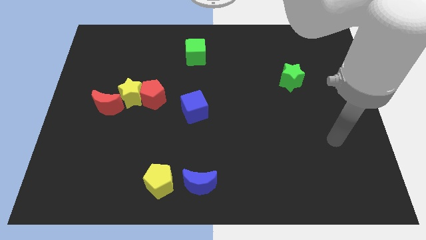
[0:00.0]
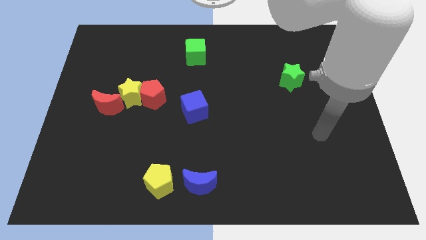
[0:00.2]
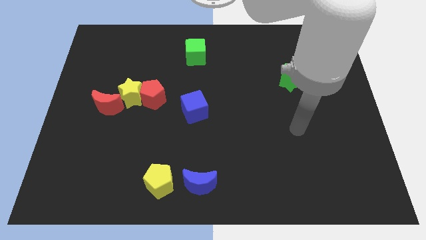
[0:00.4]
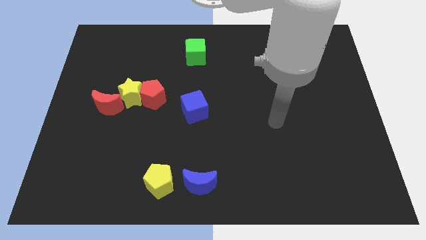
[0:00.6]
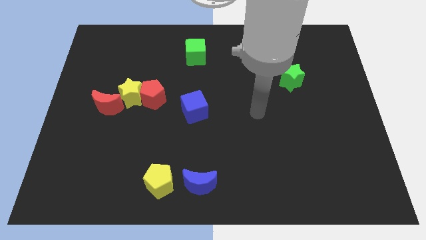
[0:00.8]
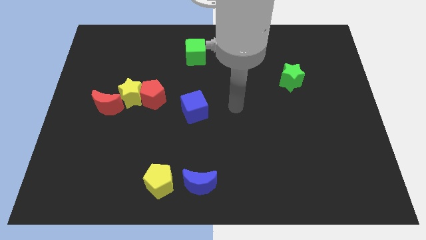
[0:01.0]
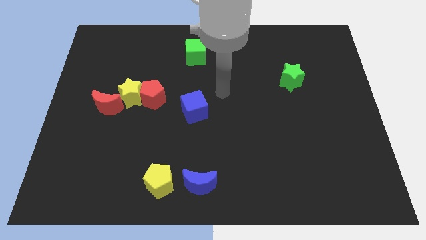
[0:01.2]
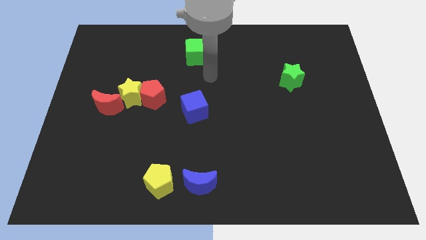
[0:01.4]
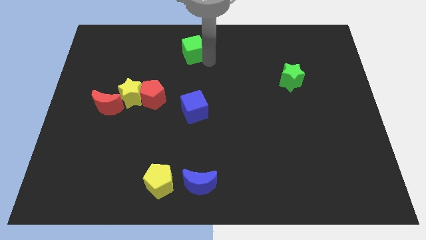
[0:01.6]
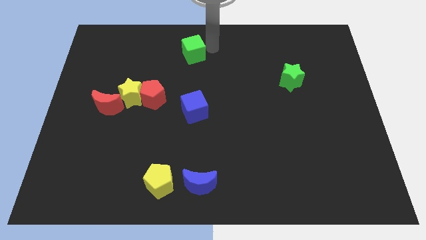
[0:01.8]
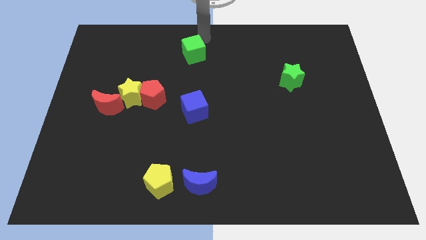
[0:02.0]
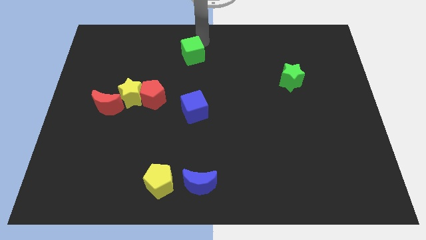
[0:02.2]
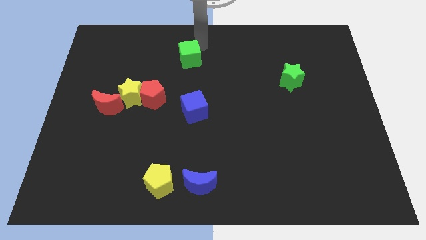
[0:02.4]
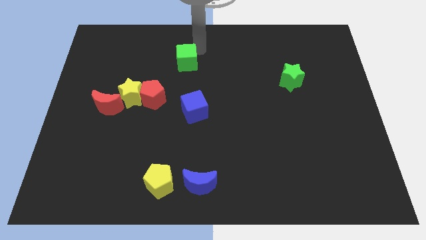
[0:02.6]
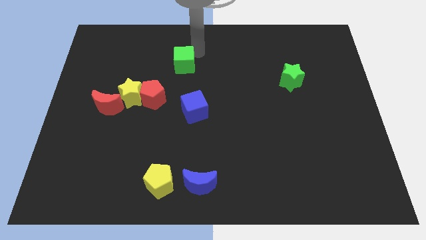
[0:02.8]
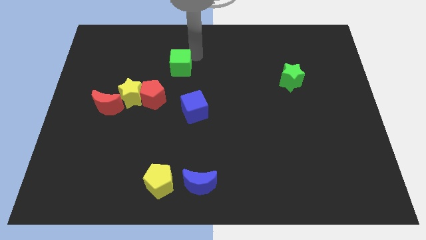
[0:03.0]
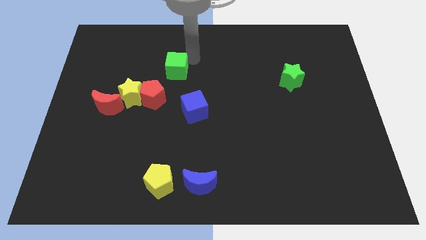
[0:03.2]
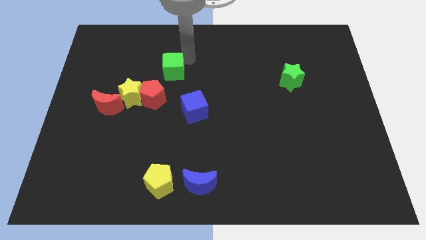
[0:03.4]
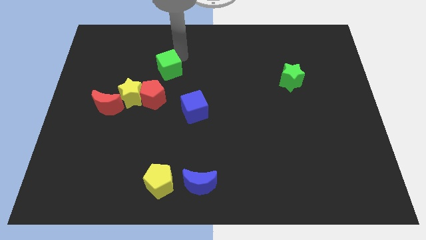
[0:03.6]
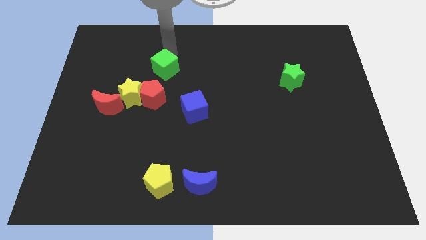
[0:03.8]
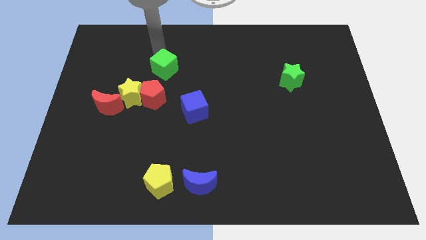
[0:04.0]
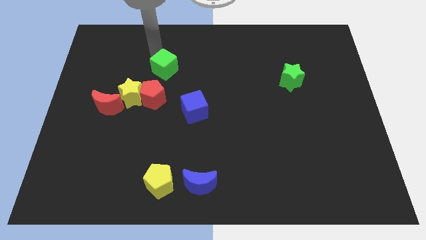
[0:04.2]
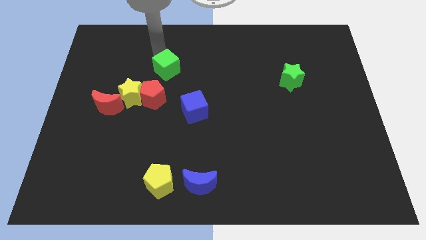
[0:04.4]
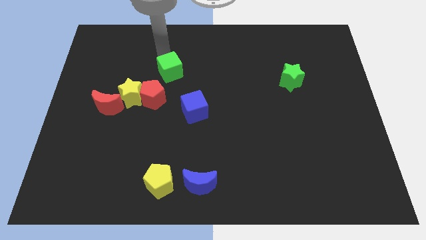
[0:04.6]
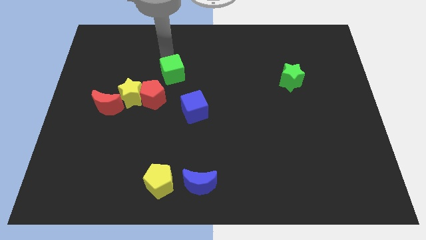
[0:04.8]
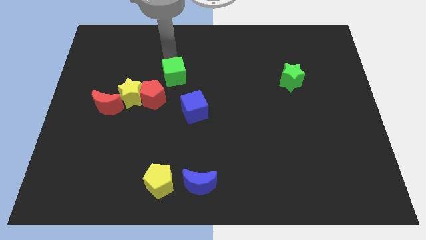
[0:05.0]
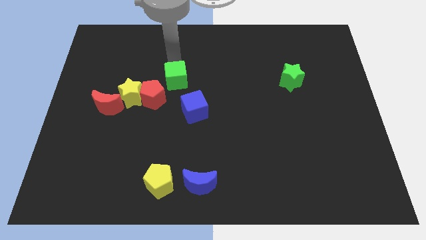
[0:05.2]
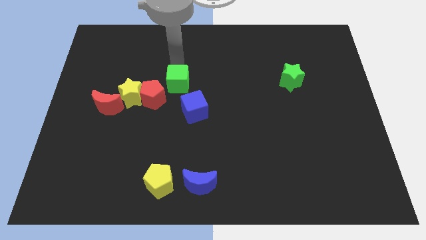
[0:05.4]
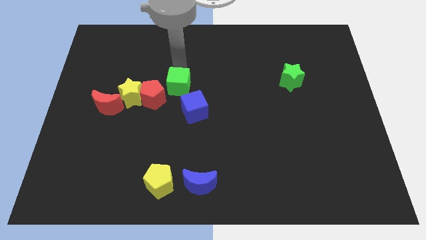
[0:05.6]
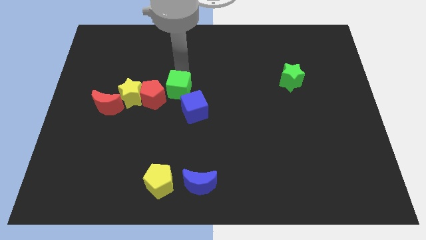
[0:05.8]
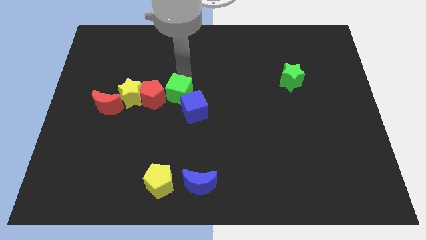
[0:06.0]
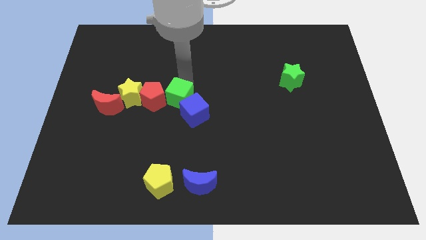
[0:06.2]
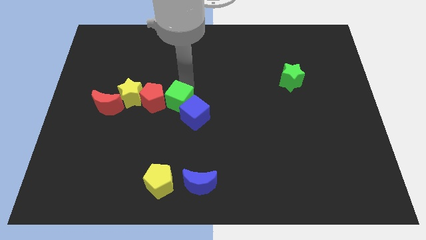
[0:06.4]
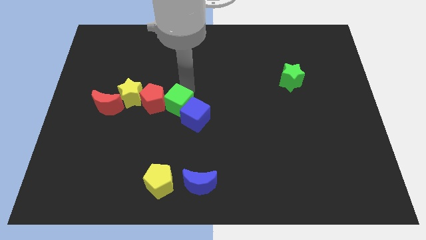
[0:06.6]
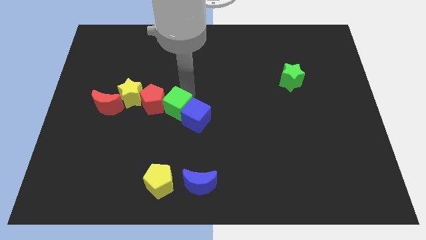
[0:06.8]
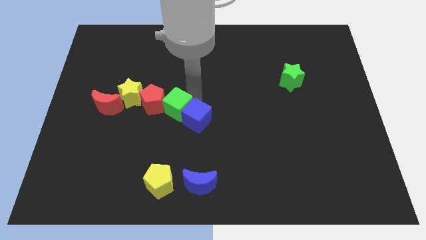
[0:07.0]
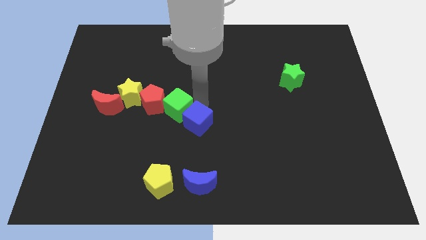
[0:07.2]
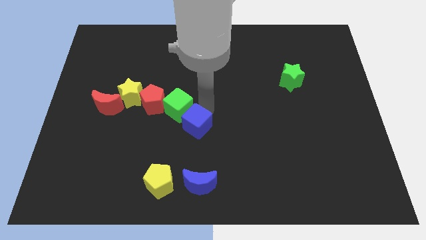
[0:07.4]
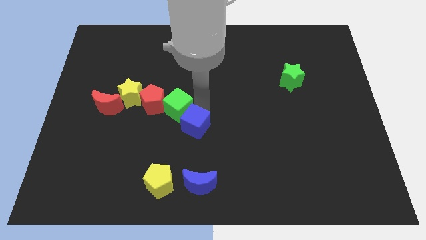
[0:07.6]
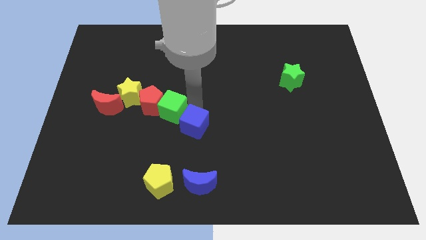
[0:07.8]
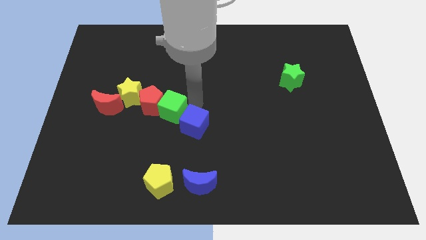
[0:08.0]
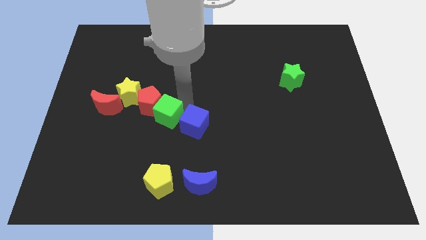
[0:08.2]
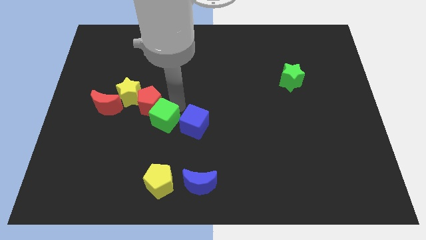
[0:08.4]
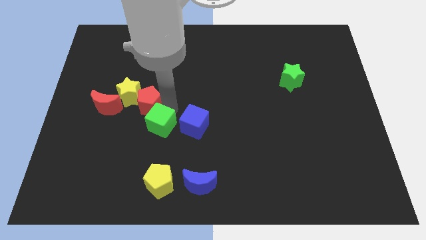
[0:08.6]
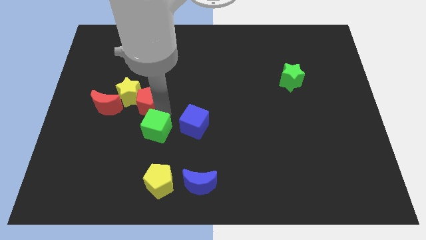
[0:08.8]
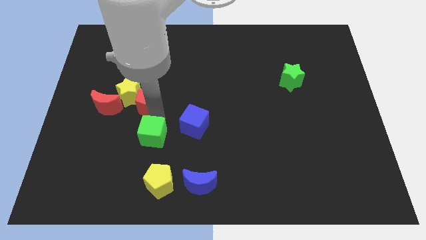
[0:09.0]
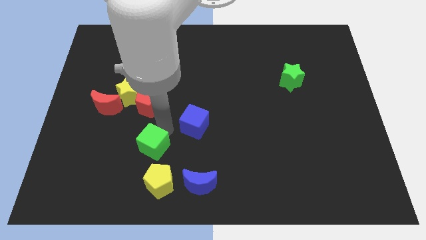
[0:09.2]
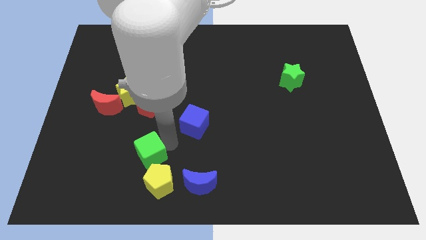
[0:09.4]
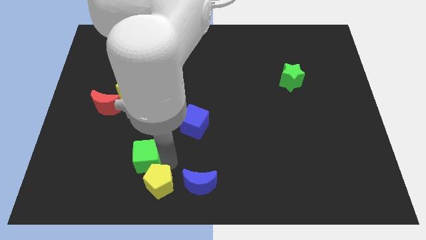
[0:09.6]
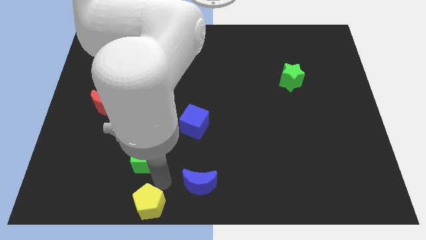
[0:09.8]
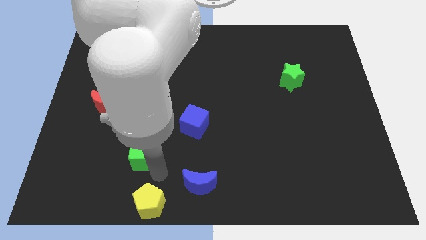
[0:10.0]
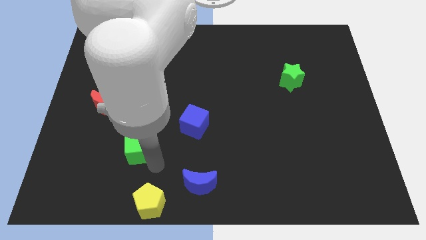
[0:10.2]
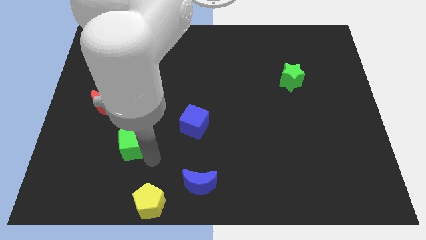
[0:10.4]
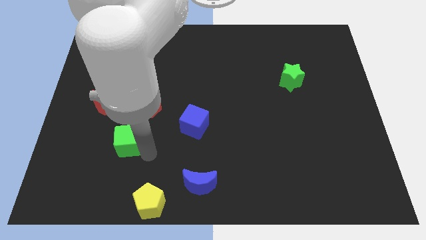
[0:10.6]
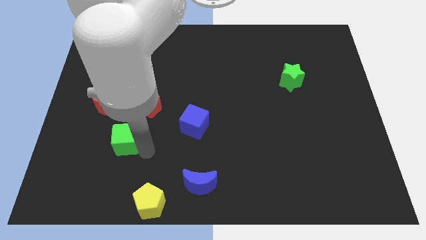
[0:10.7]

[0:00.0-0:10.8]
put the green cube diagonally down and to the left of the red pentagon

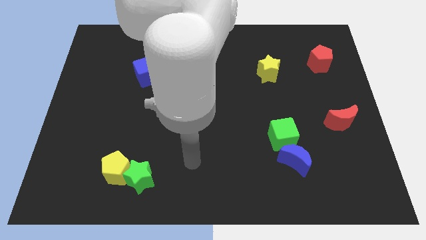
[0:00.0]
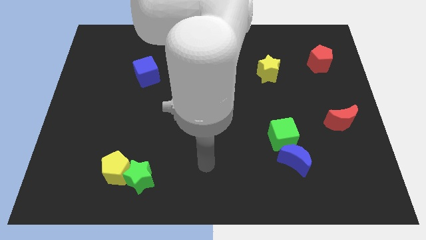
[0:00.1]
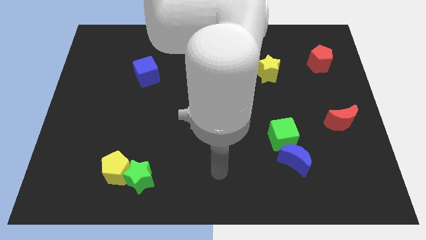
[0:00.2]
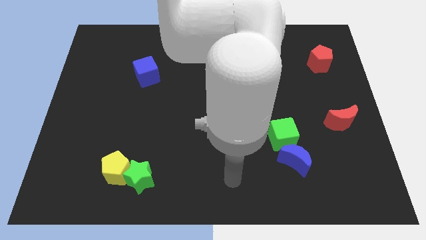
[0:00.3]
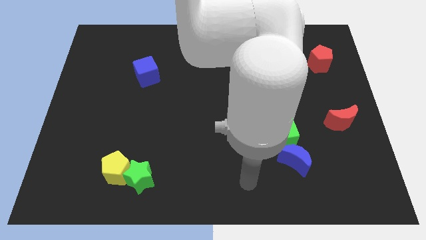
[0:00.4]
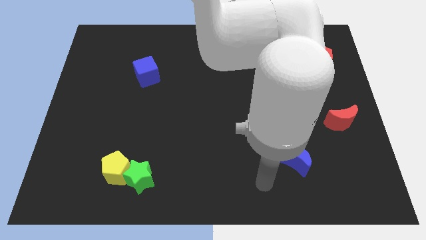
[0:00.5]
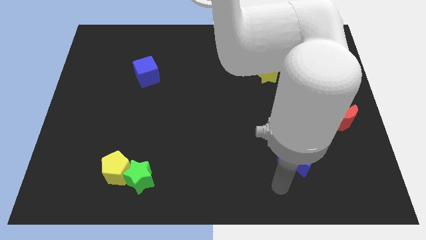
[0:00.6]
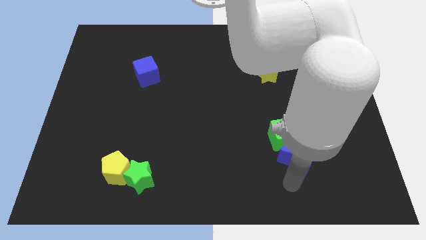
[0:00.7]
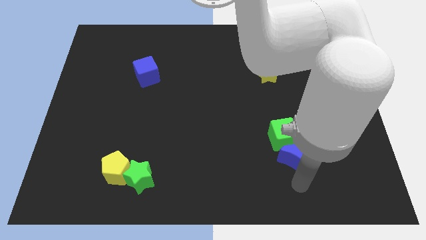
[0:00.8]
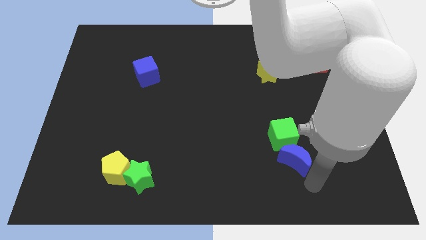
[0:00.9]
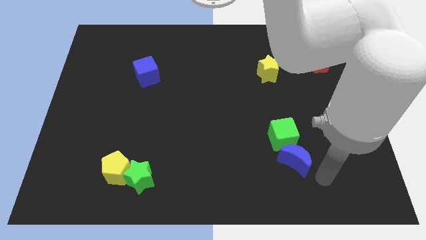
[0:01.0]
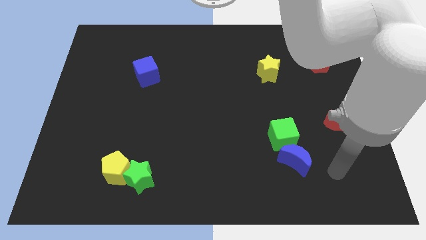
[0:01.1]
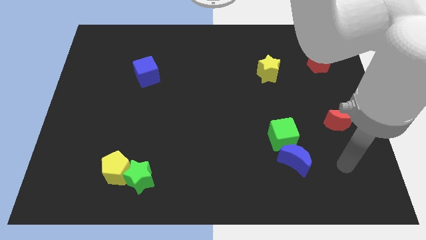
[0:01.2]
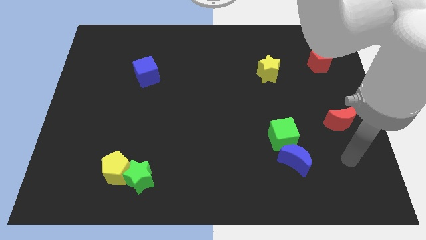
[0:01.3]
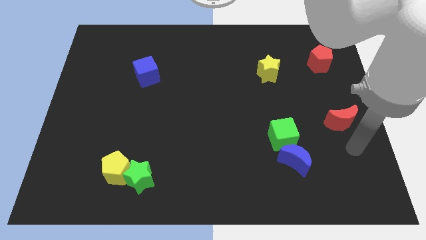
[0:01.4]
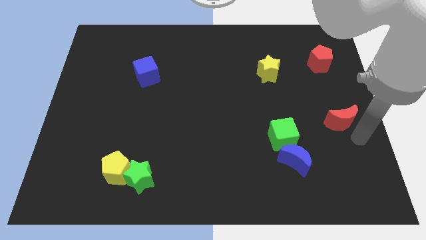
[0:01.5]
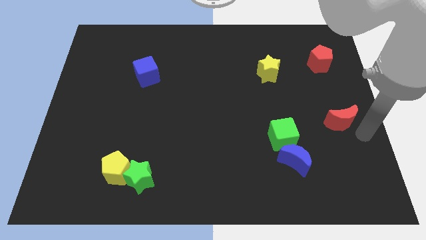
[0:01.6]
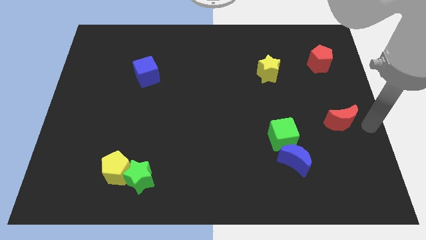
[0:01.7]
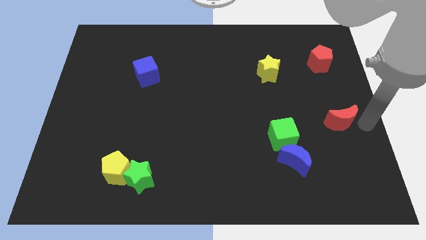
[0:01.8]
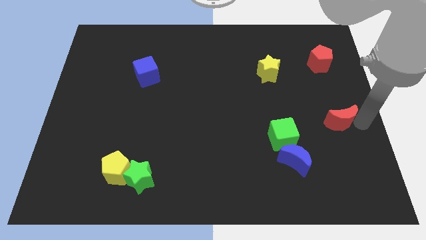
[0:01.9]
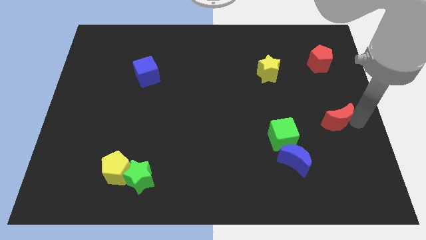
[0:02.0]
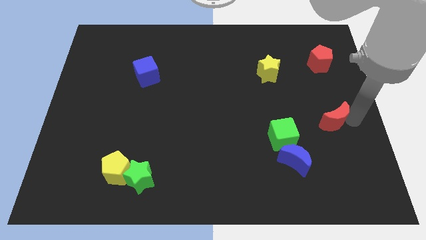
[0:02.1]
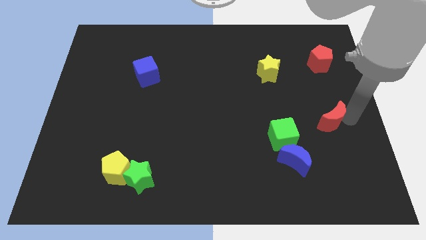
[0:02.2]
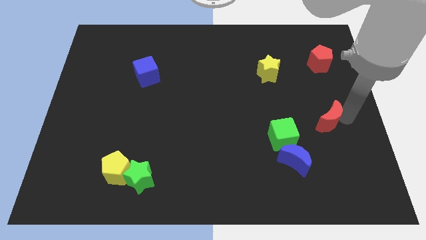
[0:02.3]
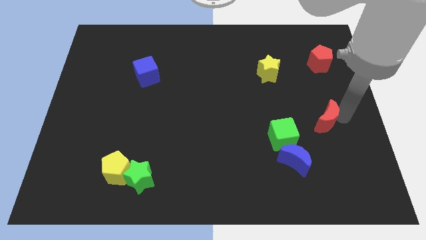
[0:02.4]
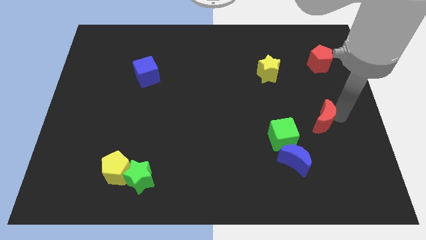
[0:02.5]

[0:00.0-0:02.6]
put the red moon to the top right of the green cube
